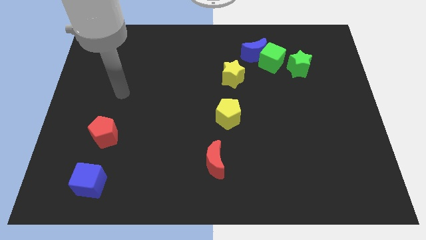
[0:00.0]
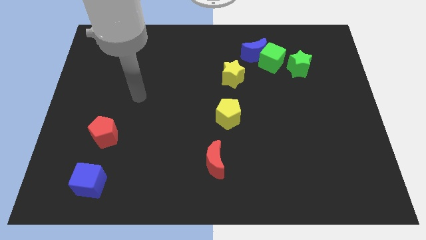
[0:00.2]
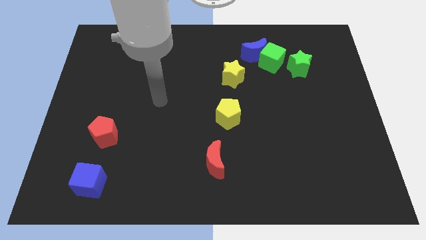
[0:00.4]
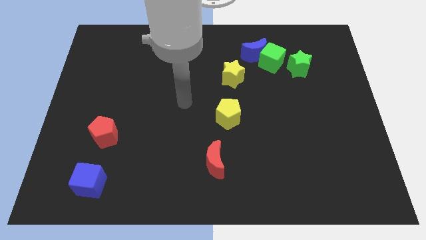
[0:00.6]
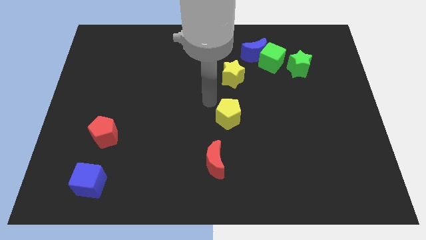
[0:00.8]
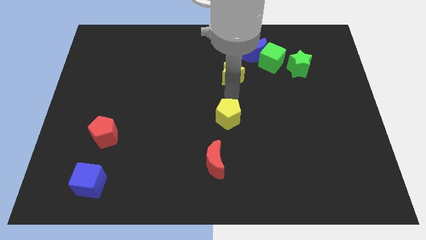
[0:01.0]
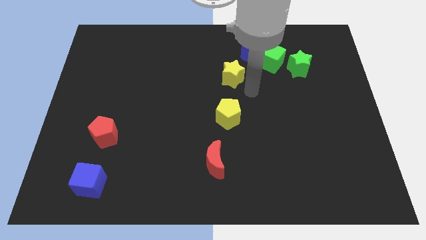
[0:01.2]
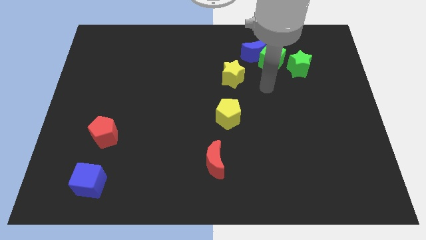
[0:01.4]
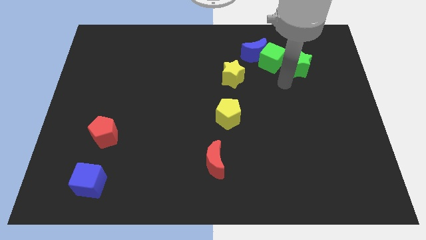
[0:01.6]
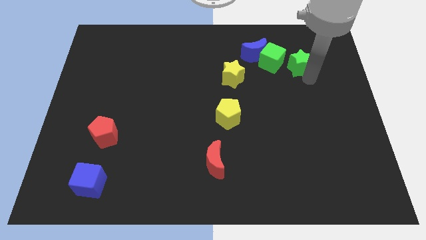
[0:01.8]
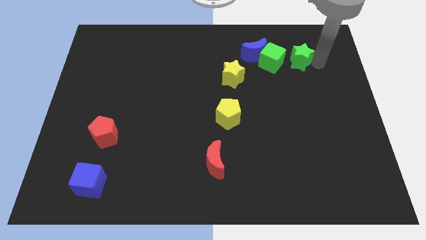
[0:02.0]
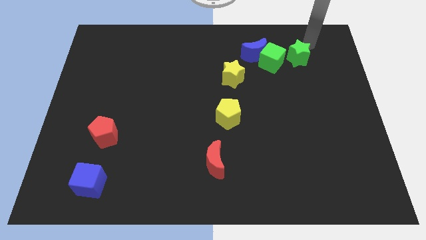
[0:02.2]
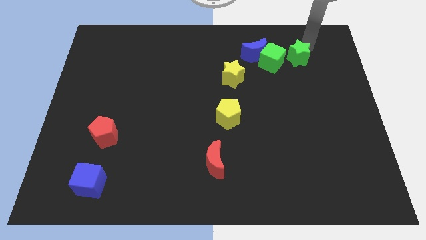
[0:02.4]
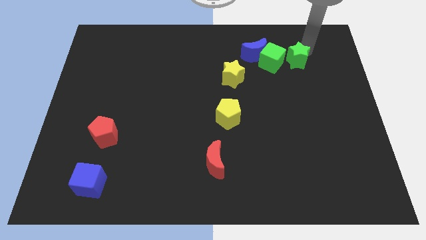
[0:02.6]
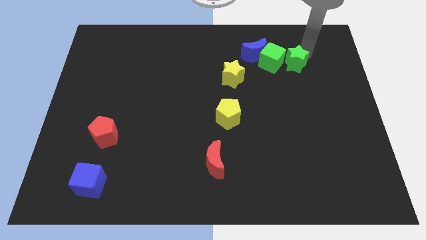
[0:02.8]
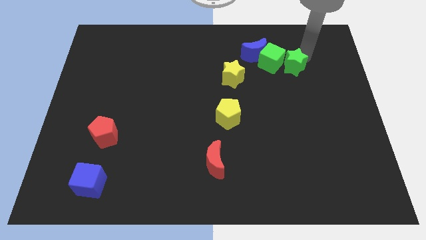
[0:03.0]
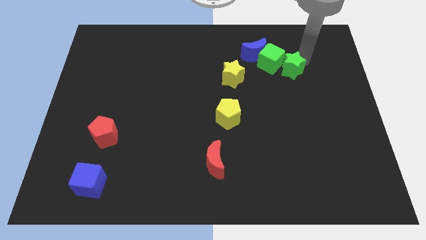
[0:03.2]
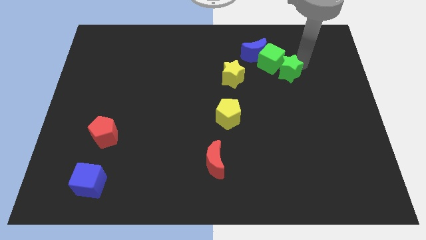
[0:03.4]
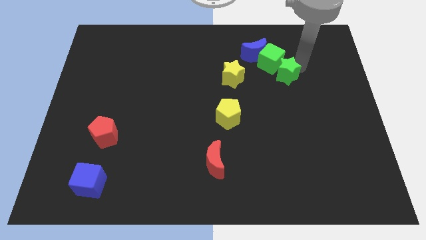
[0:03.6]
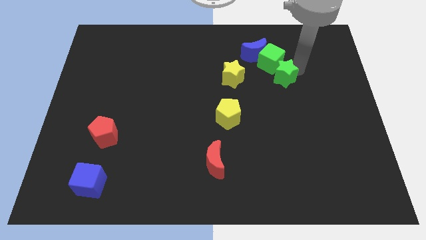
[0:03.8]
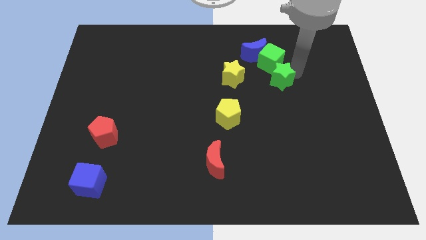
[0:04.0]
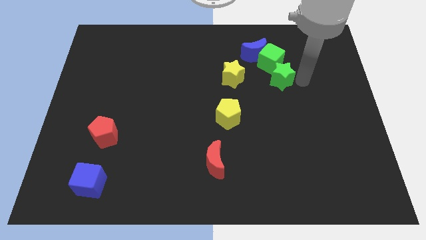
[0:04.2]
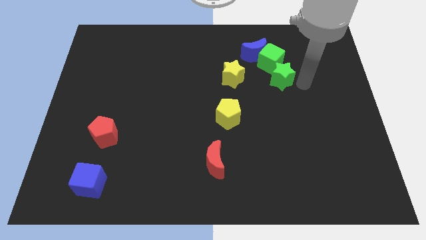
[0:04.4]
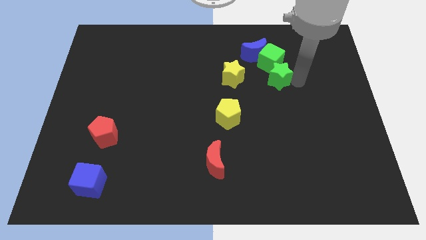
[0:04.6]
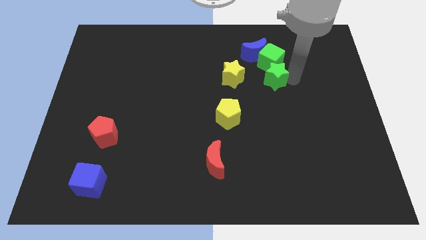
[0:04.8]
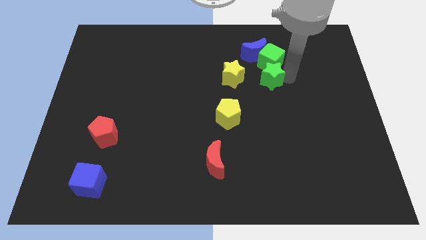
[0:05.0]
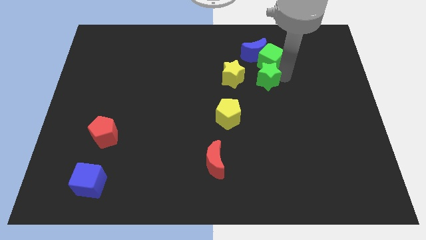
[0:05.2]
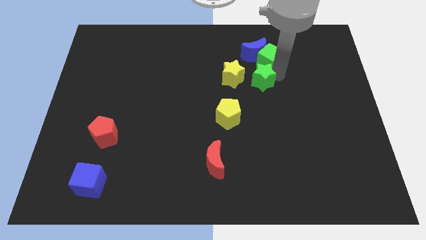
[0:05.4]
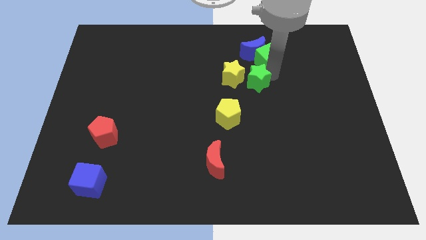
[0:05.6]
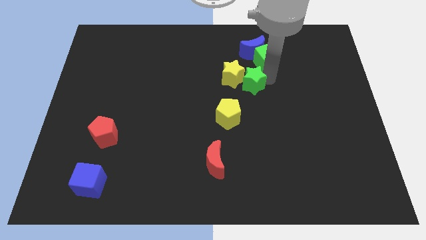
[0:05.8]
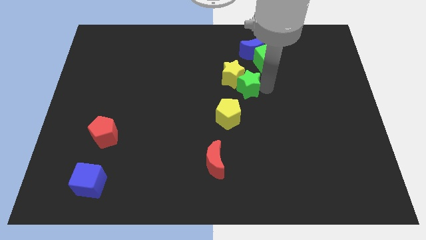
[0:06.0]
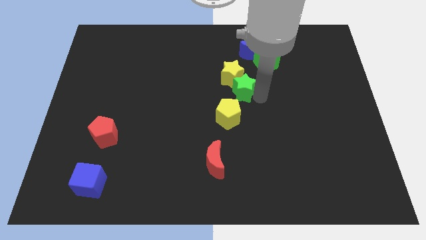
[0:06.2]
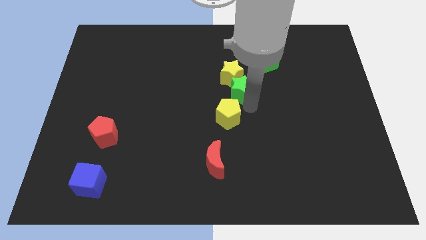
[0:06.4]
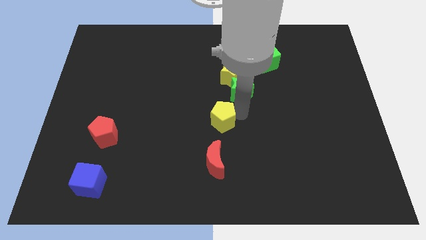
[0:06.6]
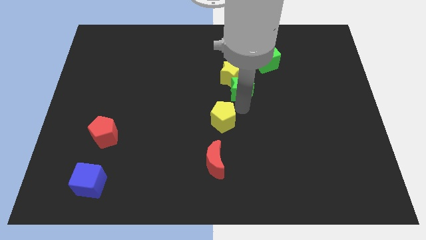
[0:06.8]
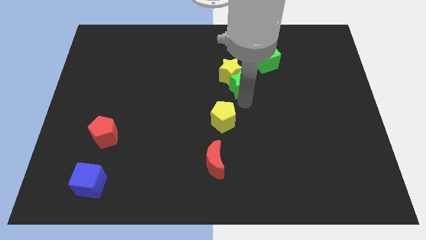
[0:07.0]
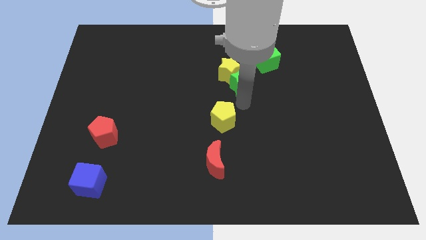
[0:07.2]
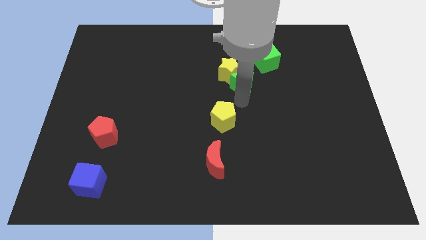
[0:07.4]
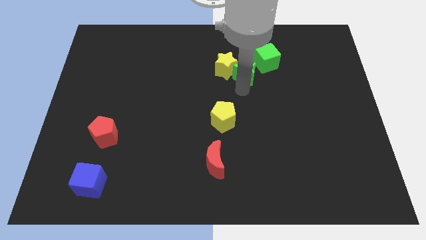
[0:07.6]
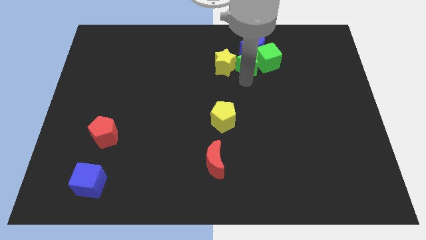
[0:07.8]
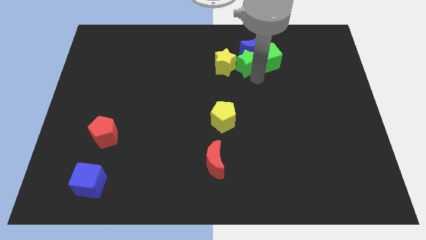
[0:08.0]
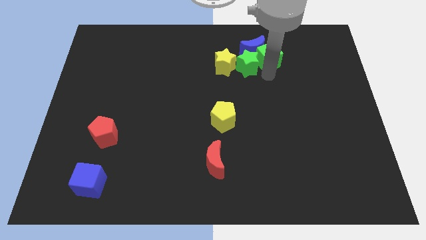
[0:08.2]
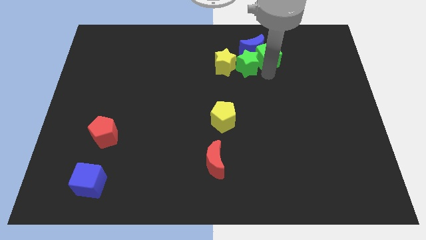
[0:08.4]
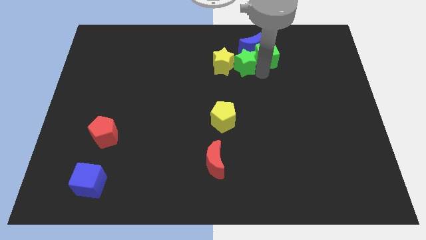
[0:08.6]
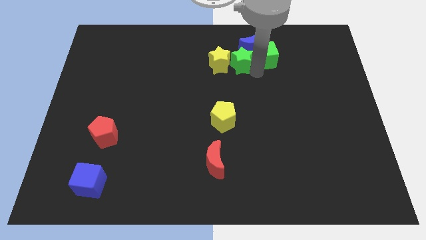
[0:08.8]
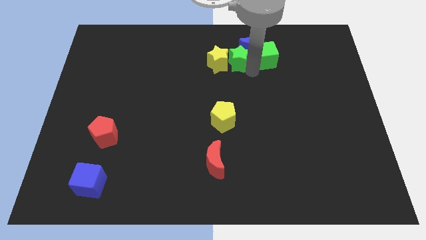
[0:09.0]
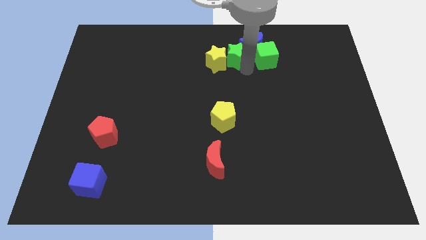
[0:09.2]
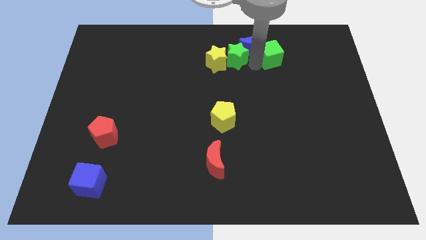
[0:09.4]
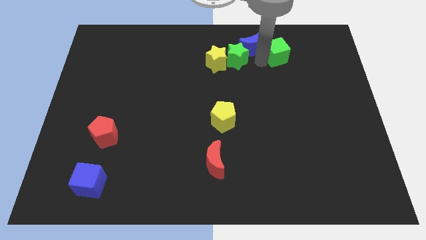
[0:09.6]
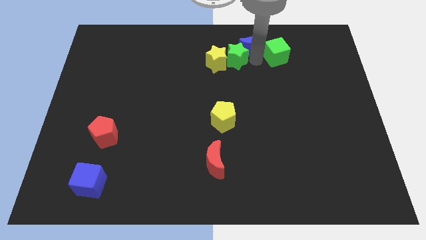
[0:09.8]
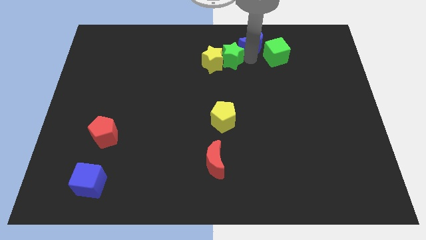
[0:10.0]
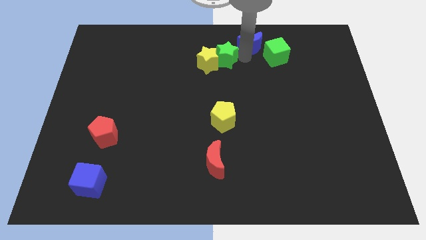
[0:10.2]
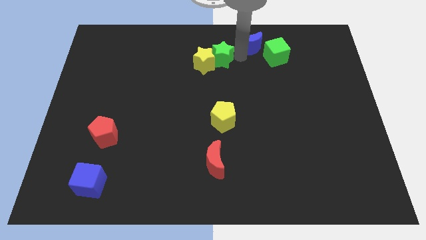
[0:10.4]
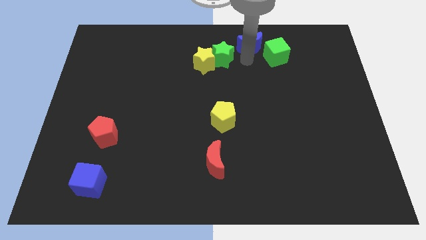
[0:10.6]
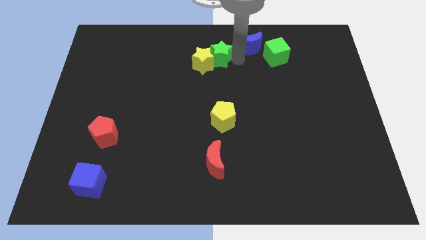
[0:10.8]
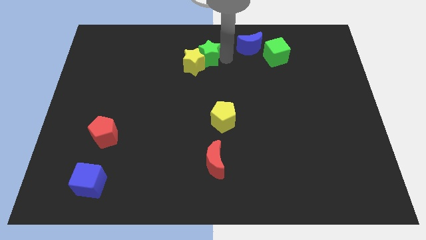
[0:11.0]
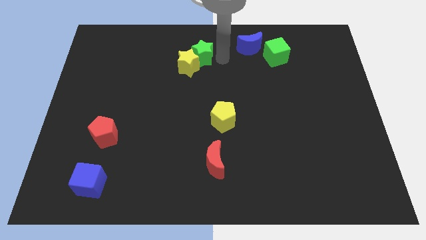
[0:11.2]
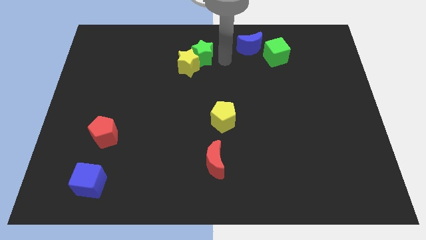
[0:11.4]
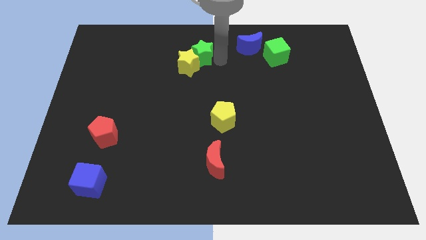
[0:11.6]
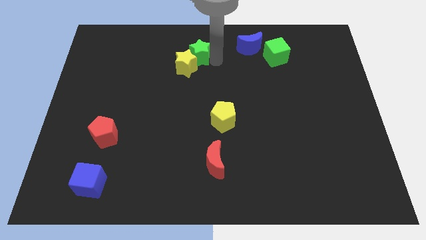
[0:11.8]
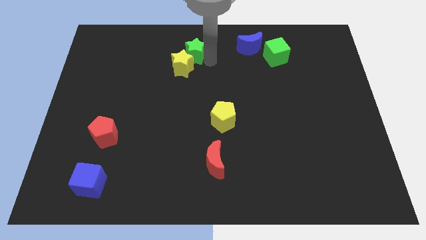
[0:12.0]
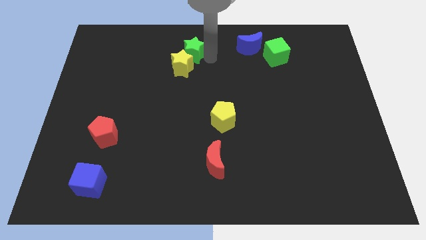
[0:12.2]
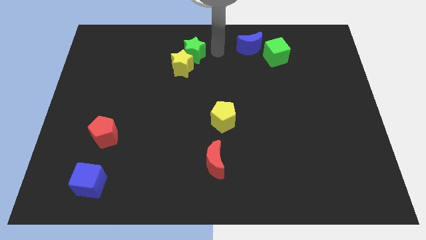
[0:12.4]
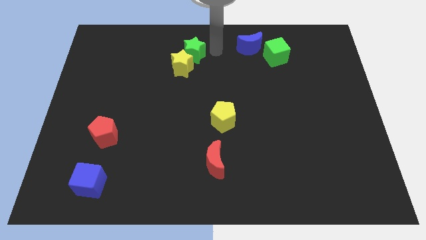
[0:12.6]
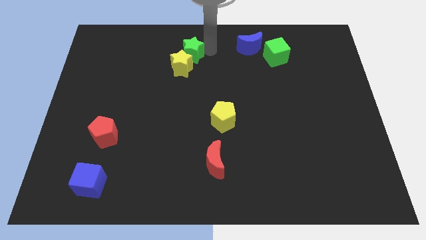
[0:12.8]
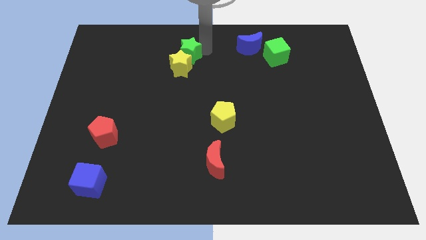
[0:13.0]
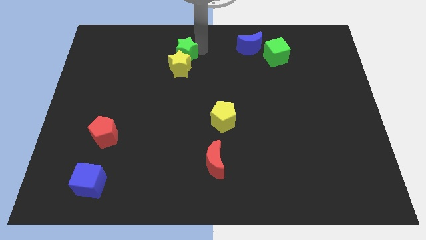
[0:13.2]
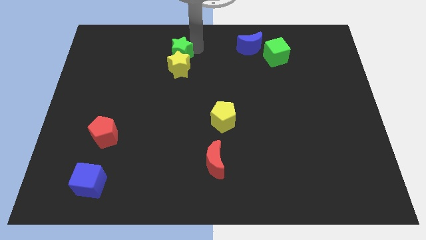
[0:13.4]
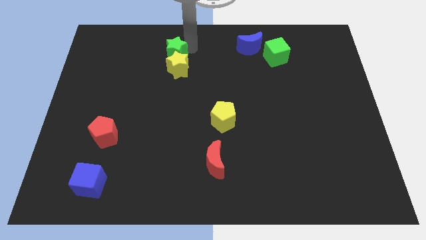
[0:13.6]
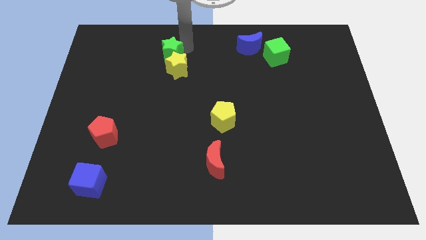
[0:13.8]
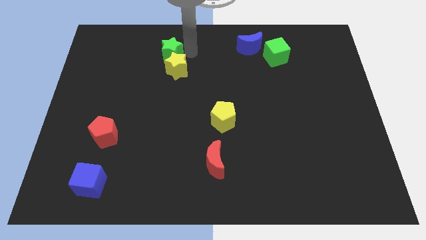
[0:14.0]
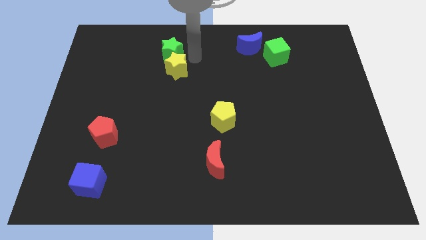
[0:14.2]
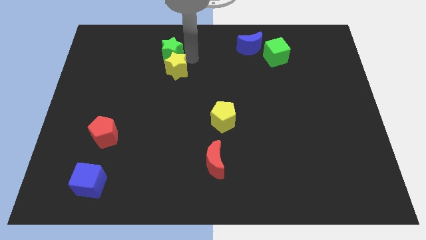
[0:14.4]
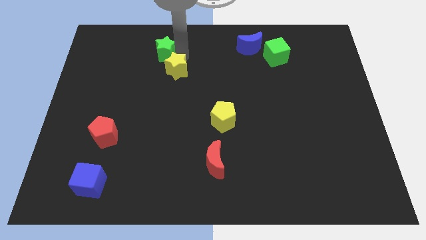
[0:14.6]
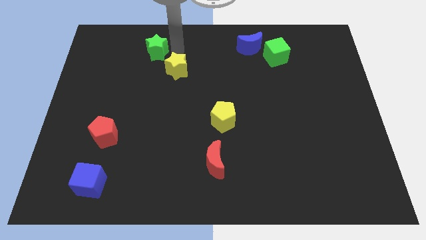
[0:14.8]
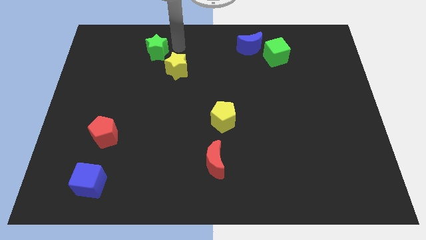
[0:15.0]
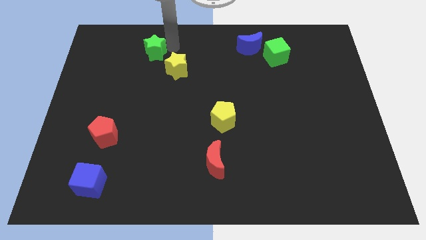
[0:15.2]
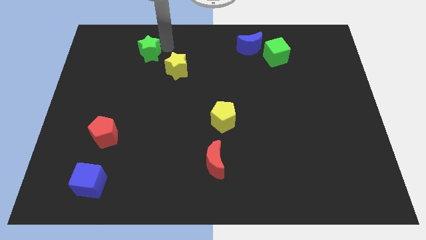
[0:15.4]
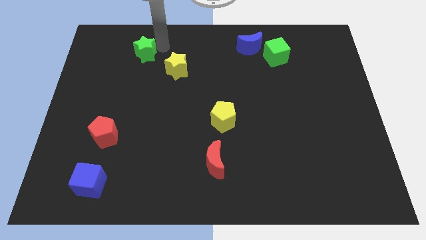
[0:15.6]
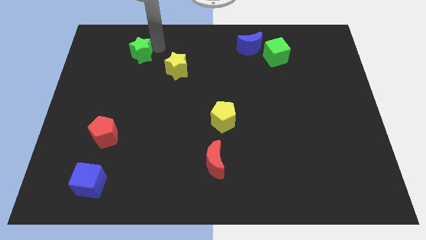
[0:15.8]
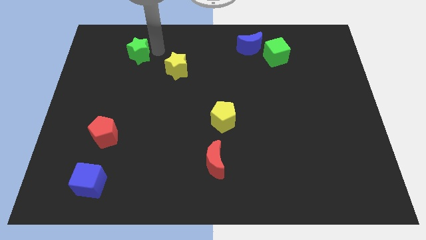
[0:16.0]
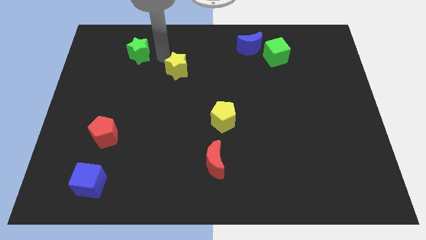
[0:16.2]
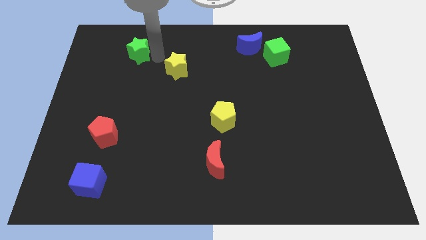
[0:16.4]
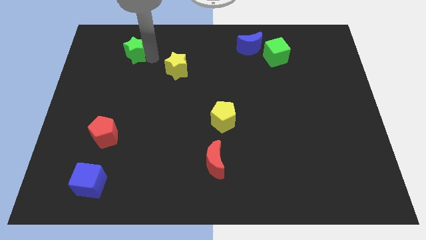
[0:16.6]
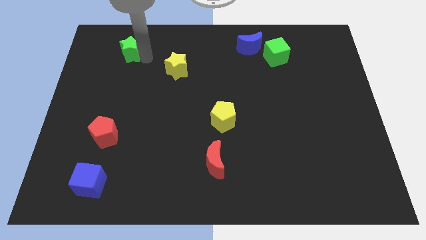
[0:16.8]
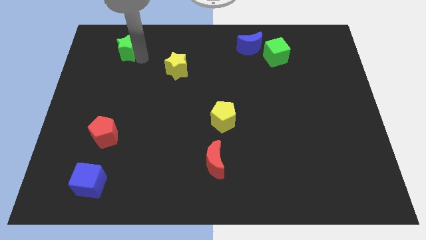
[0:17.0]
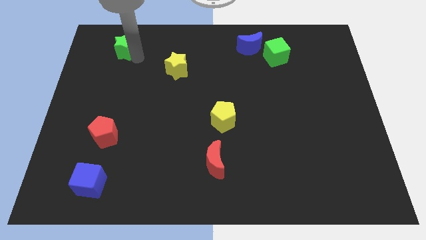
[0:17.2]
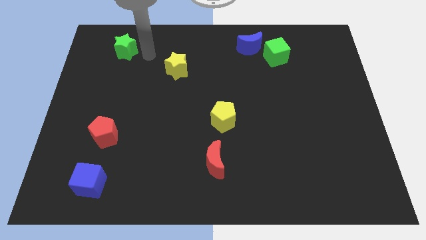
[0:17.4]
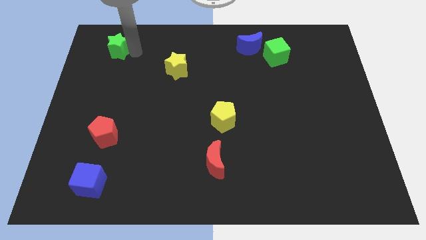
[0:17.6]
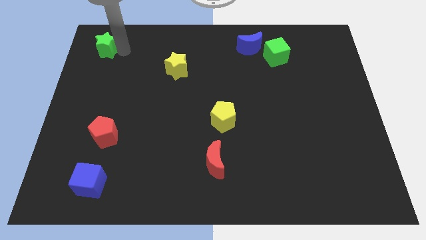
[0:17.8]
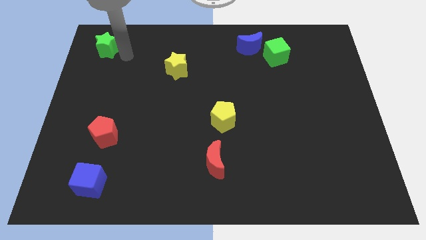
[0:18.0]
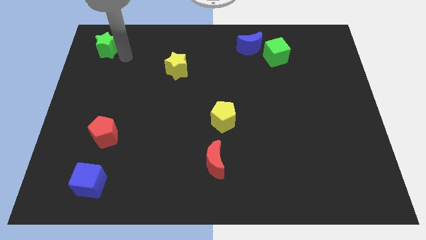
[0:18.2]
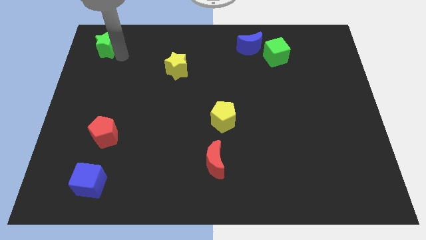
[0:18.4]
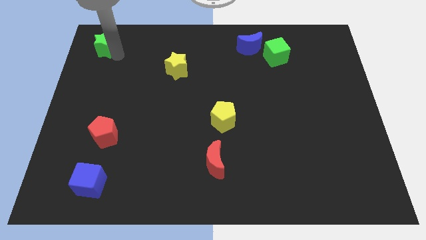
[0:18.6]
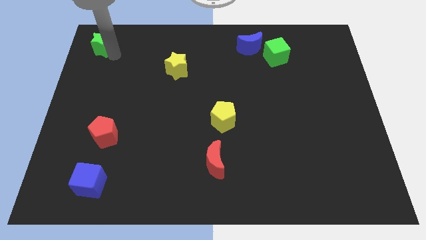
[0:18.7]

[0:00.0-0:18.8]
slide the green star to the upper left corner
